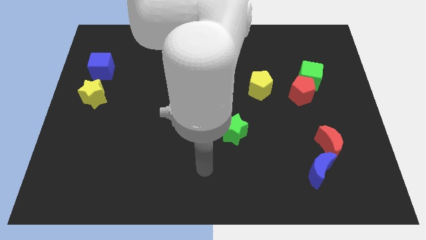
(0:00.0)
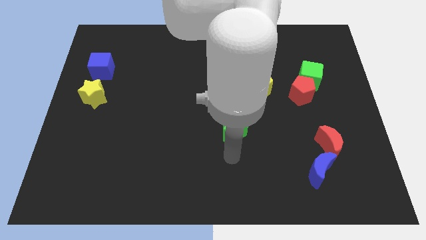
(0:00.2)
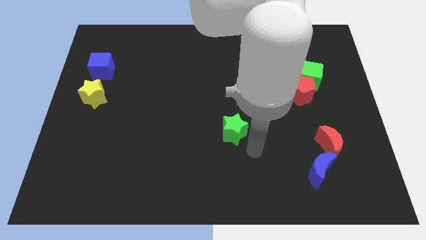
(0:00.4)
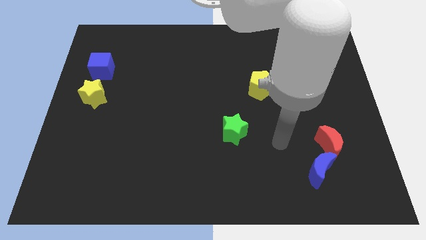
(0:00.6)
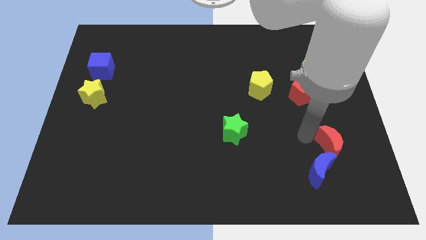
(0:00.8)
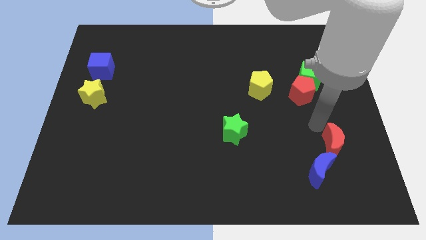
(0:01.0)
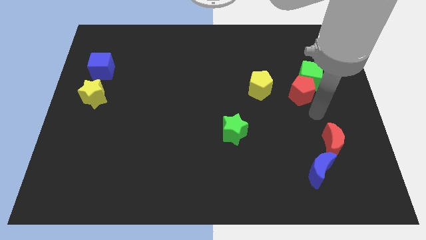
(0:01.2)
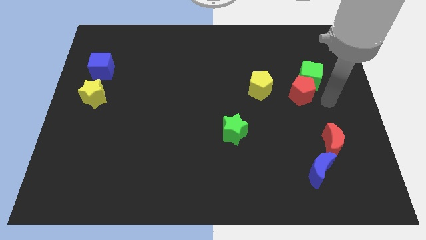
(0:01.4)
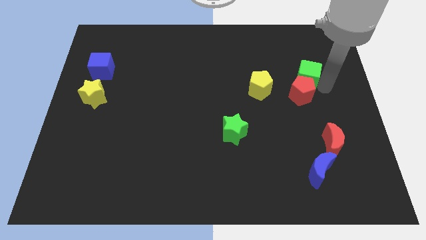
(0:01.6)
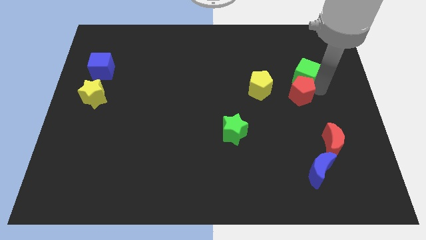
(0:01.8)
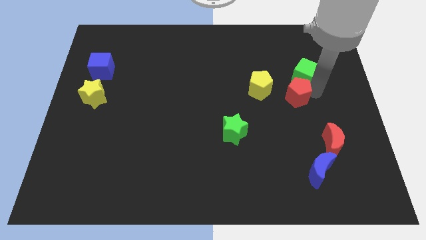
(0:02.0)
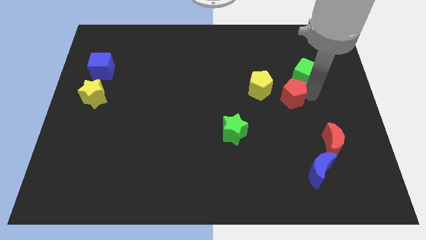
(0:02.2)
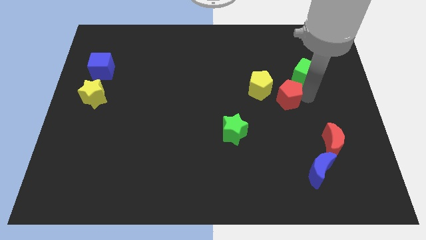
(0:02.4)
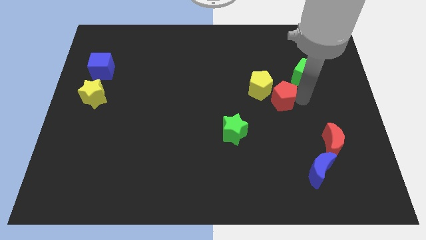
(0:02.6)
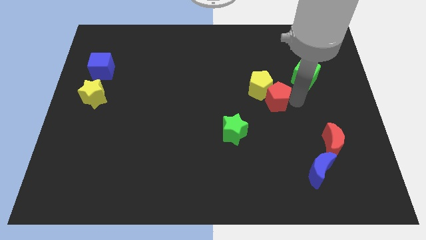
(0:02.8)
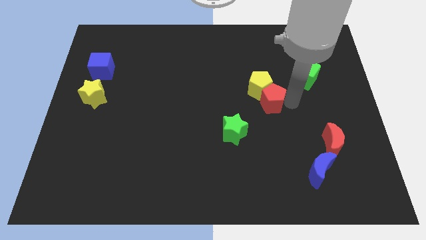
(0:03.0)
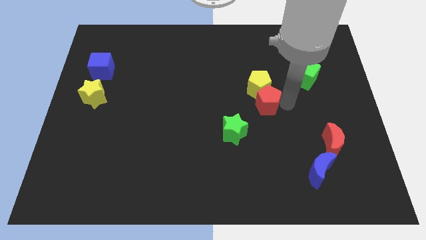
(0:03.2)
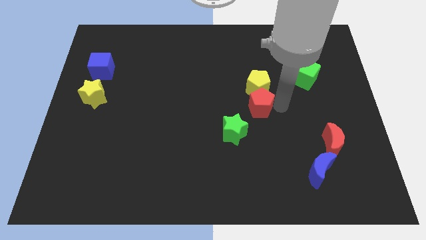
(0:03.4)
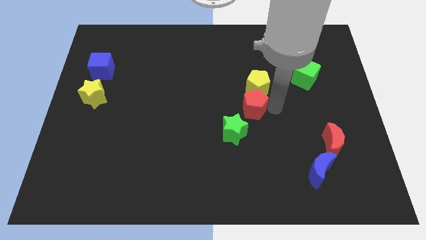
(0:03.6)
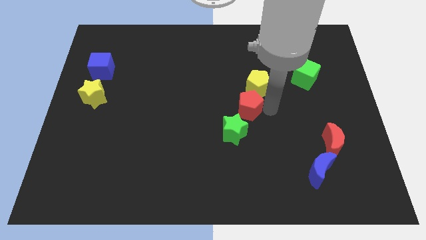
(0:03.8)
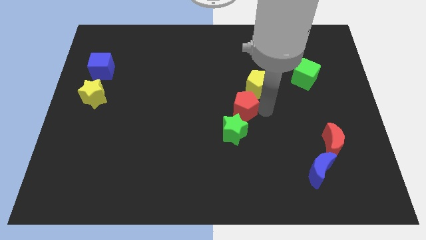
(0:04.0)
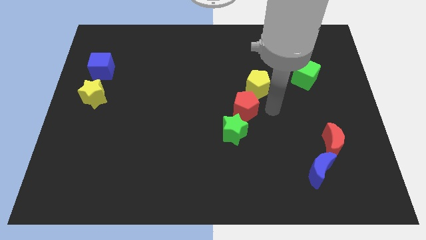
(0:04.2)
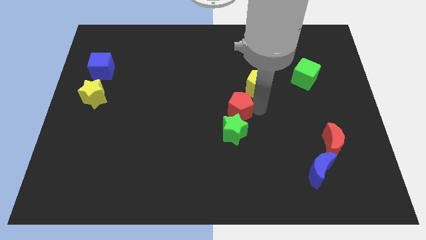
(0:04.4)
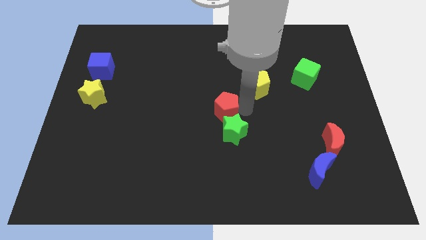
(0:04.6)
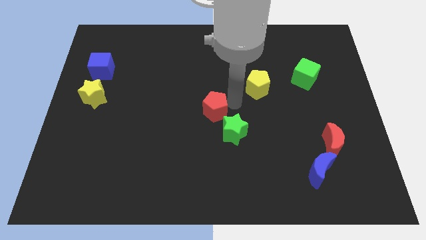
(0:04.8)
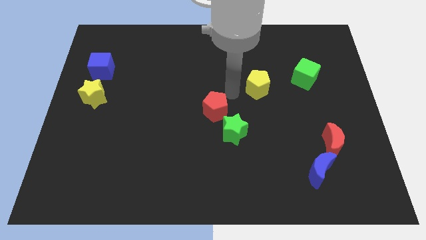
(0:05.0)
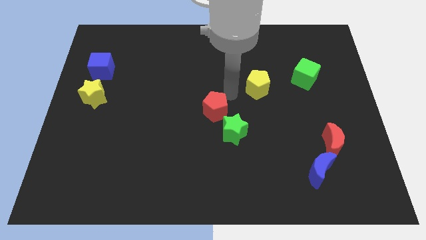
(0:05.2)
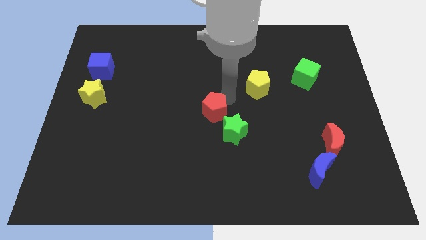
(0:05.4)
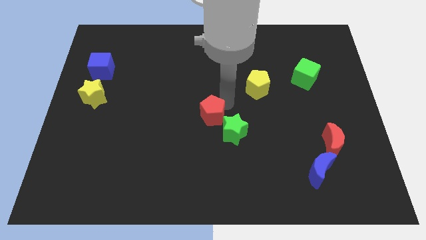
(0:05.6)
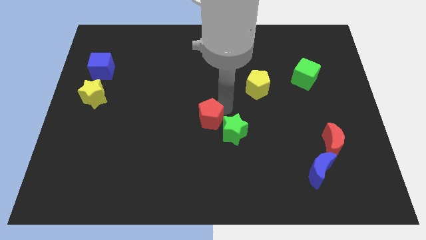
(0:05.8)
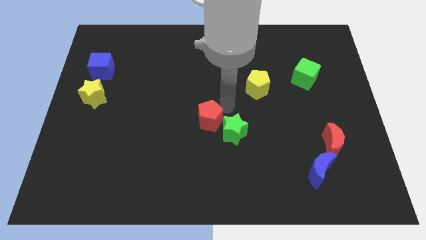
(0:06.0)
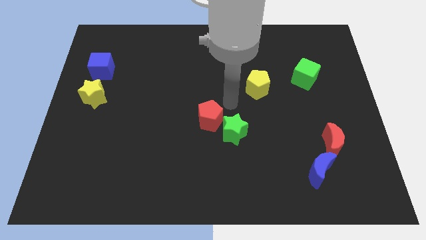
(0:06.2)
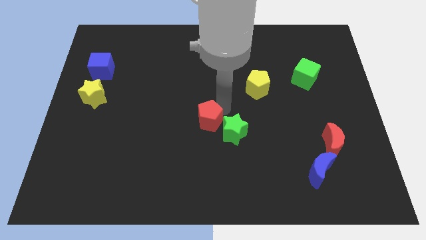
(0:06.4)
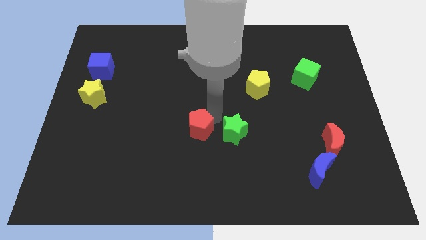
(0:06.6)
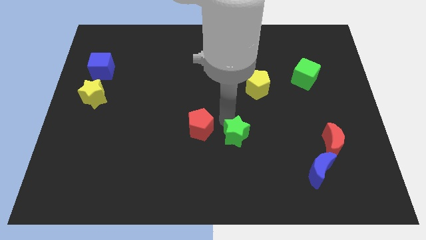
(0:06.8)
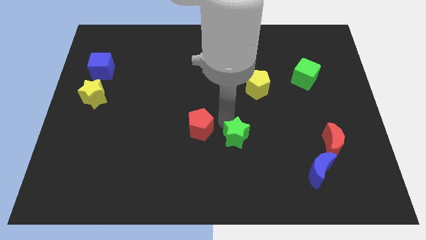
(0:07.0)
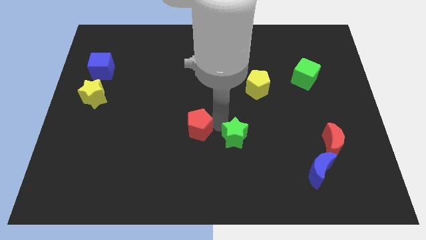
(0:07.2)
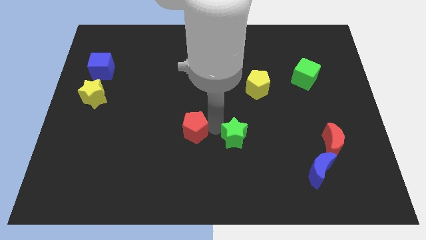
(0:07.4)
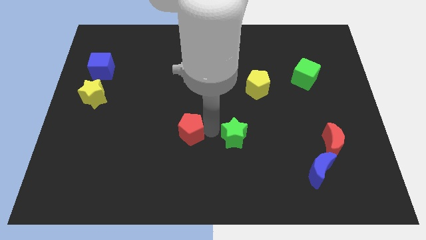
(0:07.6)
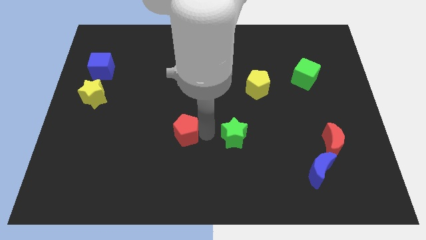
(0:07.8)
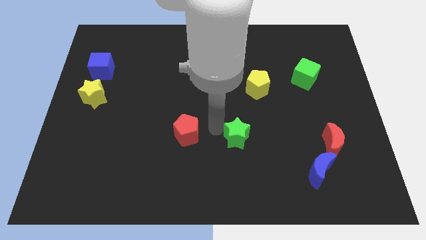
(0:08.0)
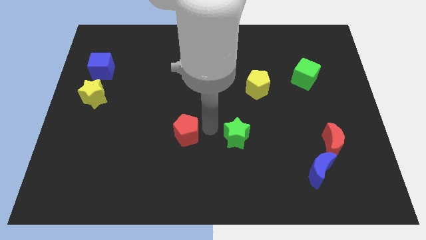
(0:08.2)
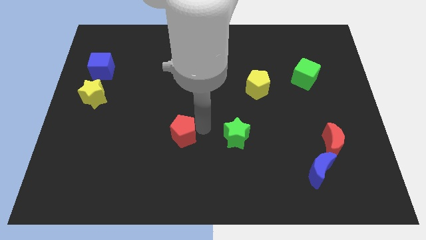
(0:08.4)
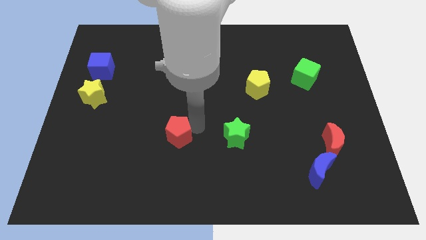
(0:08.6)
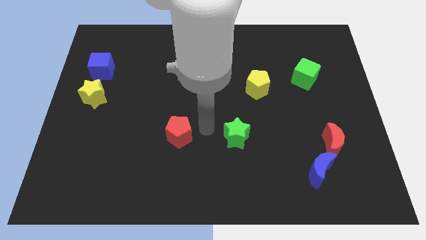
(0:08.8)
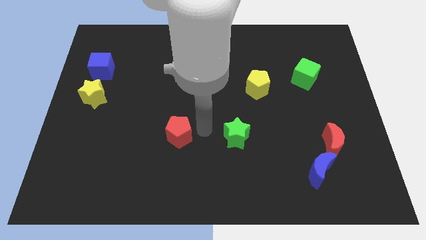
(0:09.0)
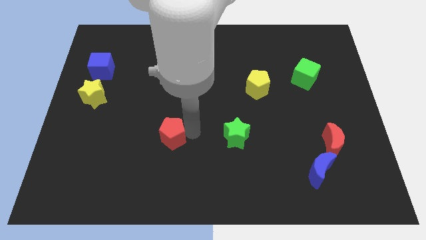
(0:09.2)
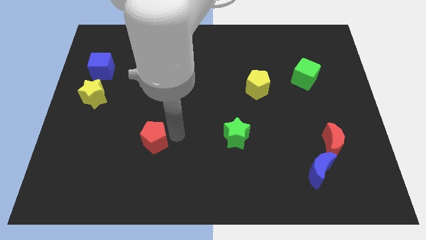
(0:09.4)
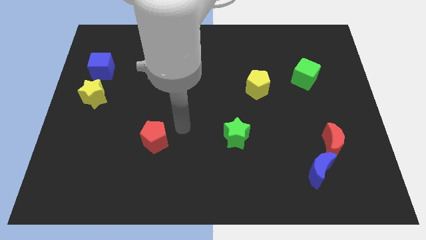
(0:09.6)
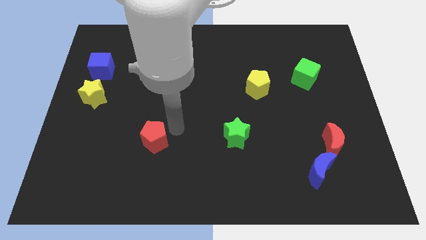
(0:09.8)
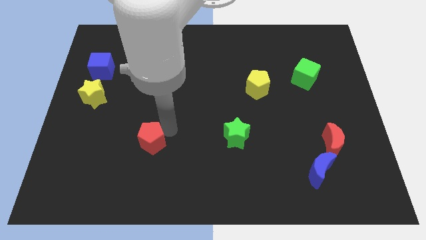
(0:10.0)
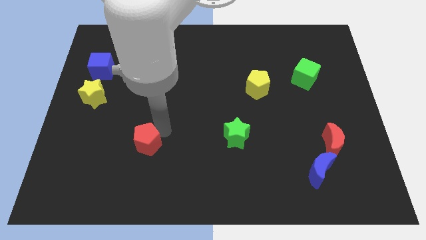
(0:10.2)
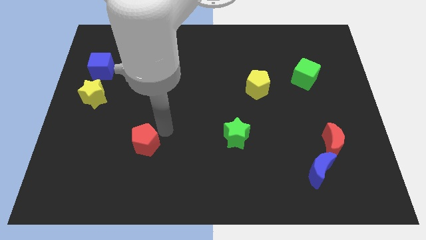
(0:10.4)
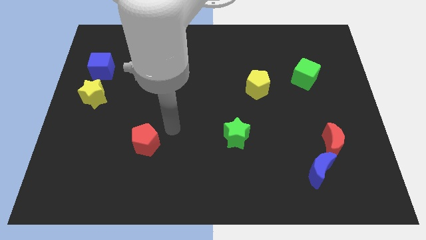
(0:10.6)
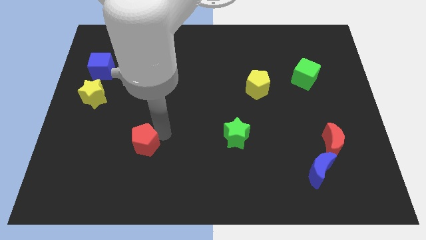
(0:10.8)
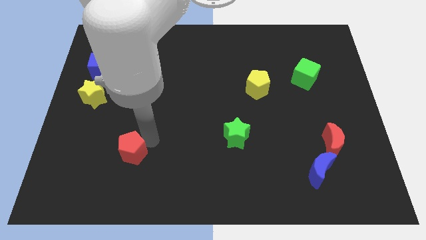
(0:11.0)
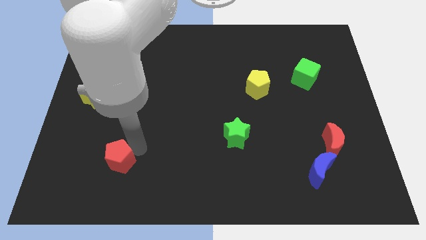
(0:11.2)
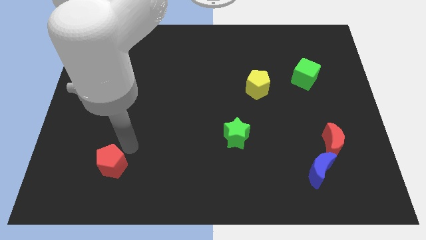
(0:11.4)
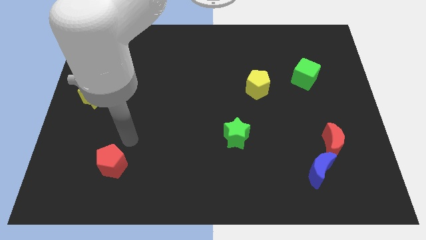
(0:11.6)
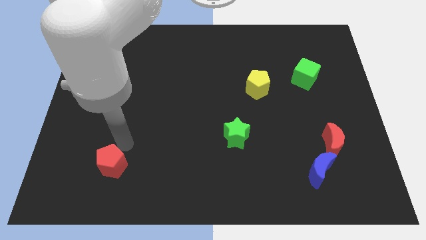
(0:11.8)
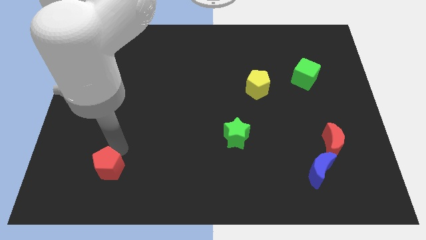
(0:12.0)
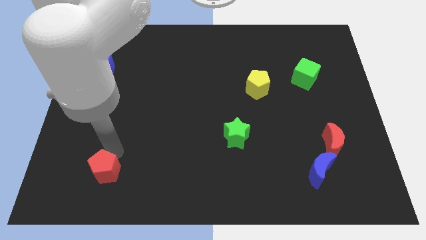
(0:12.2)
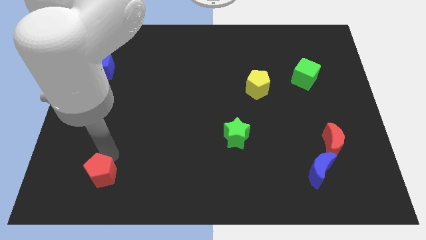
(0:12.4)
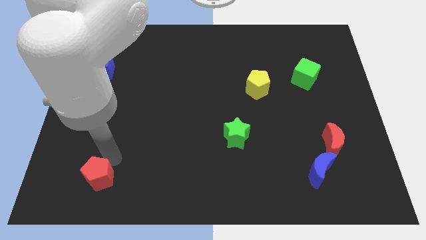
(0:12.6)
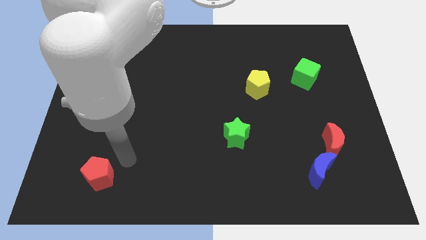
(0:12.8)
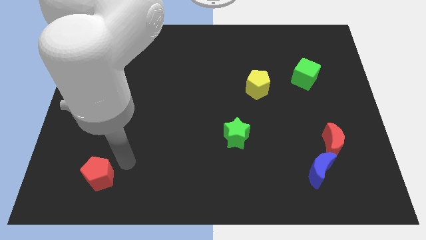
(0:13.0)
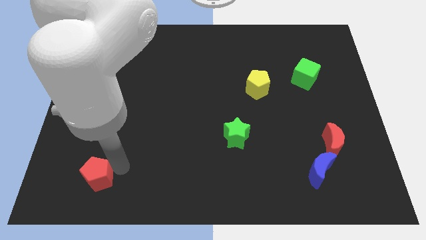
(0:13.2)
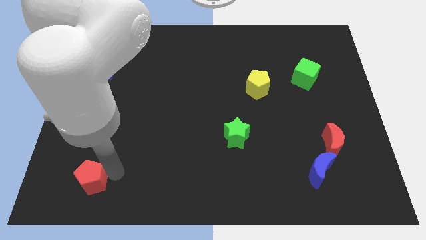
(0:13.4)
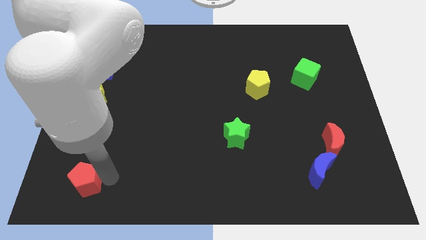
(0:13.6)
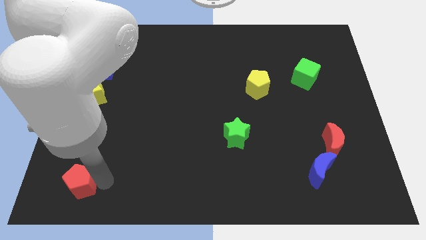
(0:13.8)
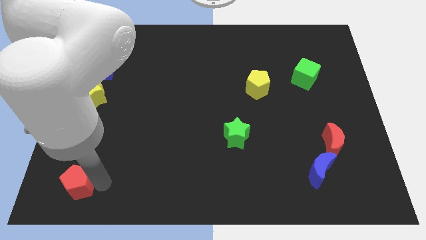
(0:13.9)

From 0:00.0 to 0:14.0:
put the red pentagon to the bottom left of the board
